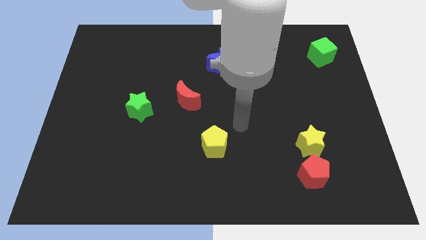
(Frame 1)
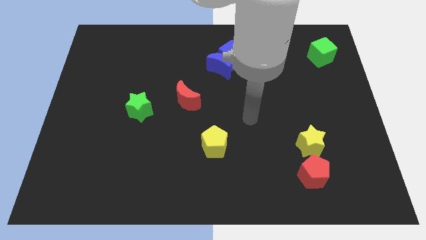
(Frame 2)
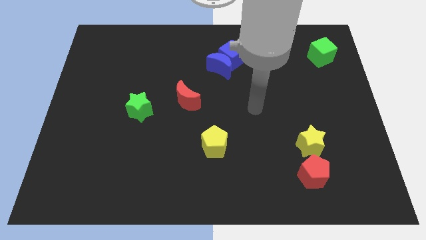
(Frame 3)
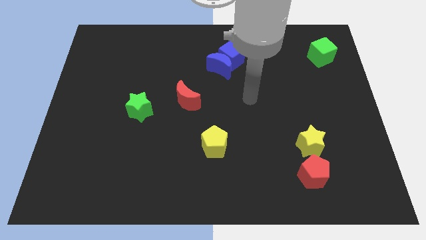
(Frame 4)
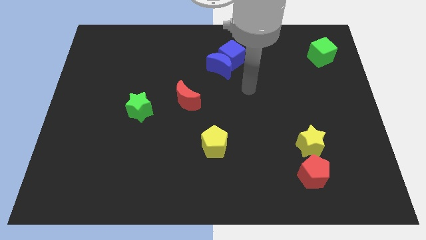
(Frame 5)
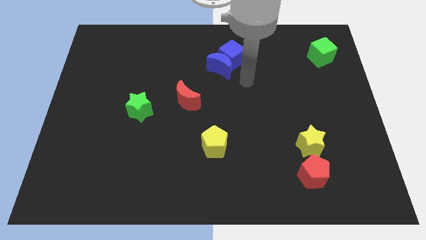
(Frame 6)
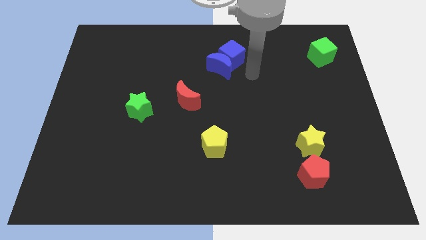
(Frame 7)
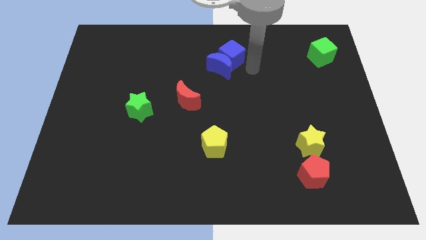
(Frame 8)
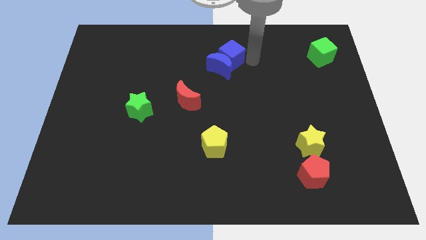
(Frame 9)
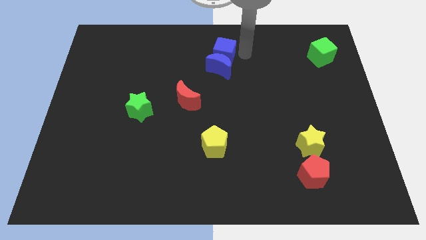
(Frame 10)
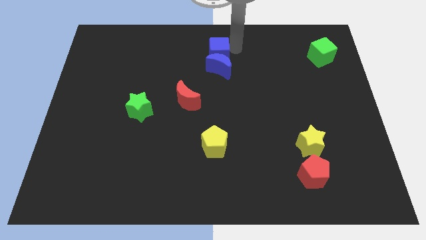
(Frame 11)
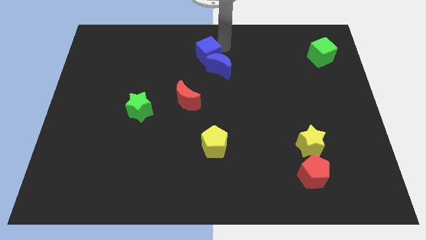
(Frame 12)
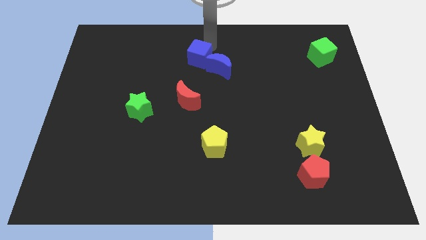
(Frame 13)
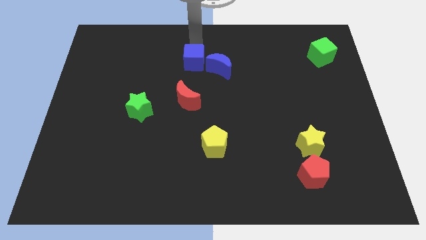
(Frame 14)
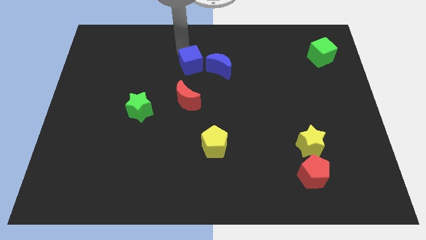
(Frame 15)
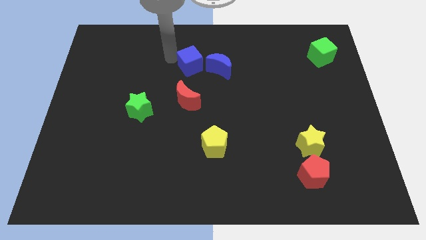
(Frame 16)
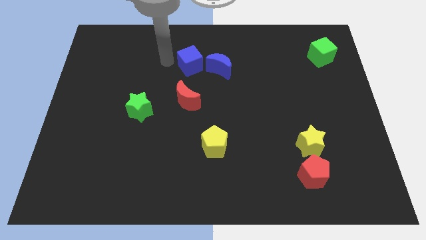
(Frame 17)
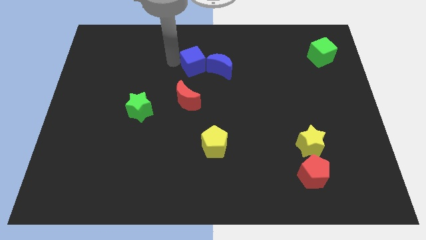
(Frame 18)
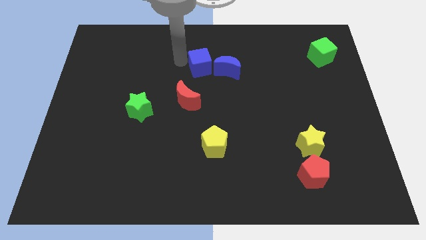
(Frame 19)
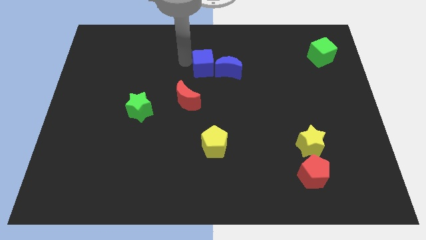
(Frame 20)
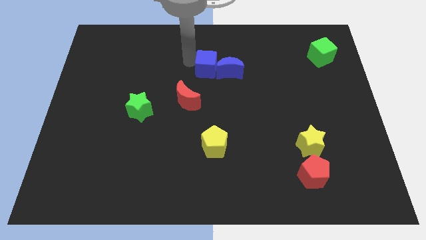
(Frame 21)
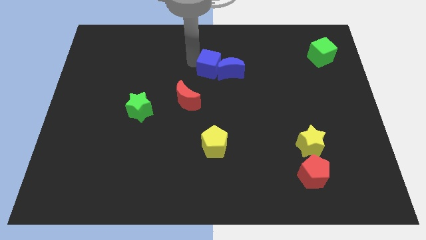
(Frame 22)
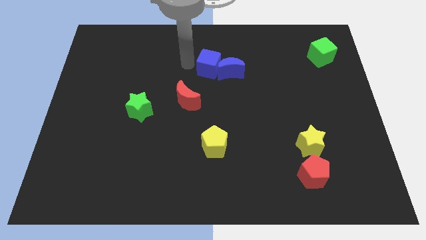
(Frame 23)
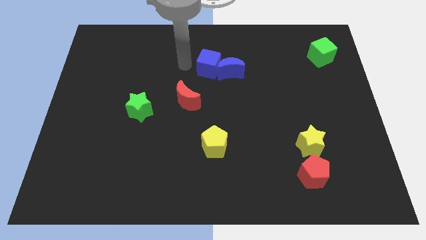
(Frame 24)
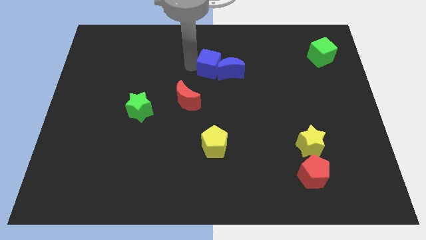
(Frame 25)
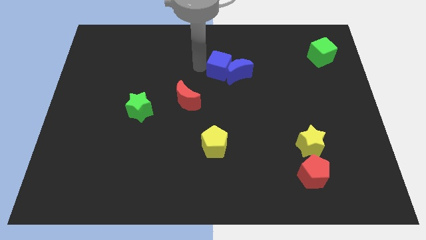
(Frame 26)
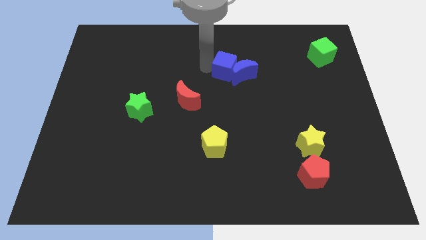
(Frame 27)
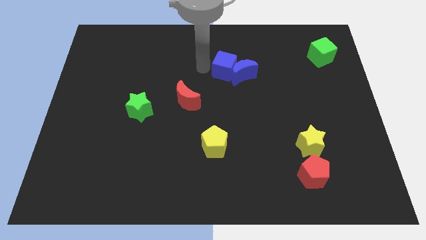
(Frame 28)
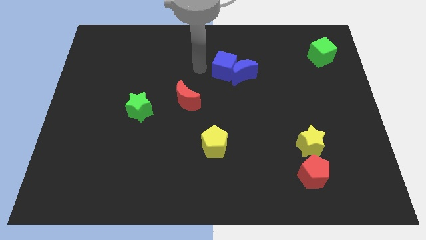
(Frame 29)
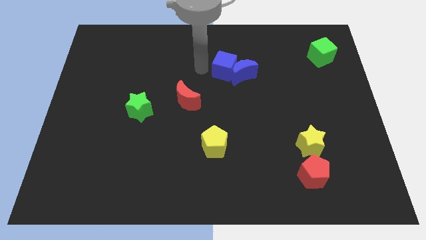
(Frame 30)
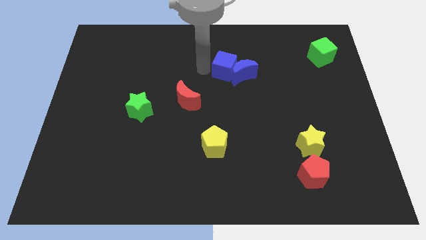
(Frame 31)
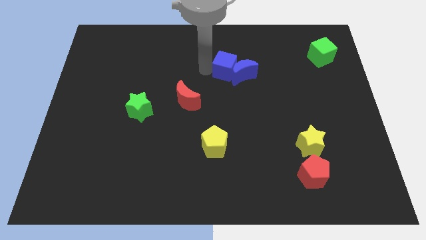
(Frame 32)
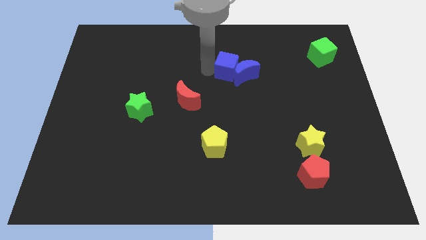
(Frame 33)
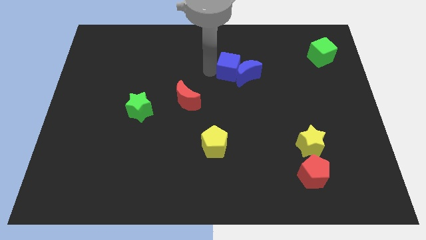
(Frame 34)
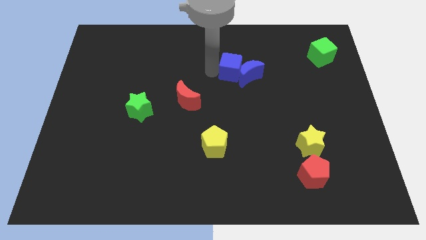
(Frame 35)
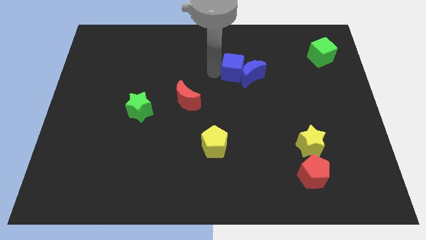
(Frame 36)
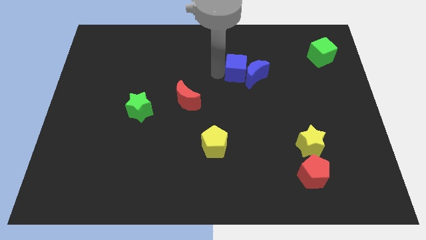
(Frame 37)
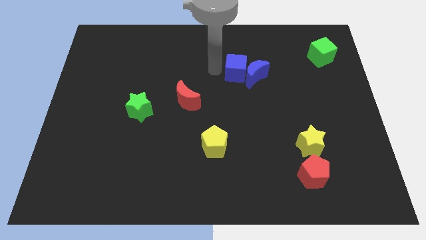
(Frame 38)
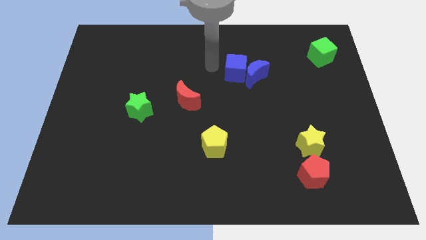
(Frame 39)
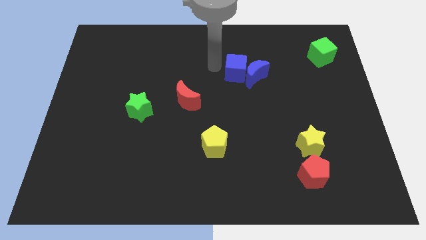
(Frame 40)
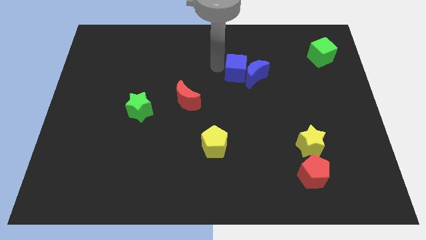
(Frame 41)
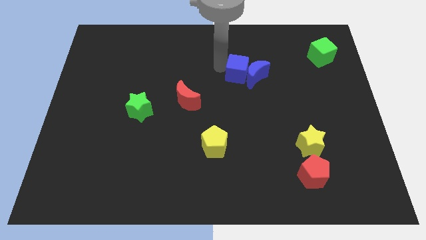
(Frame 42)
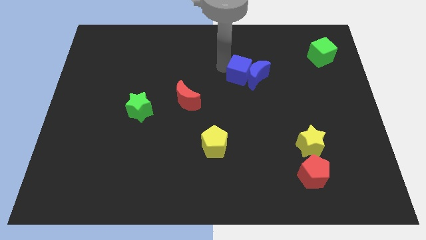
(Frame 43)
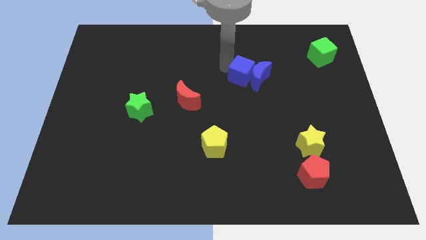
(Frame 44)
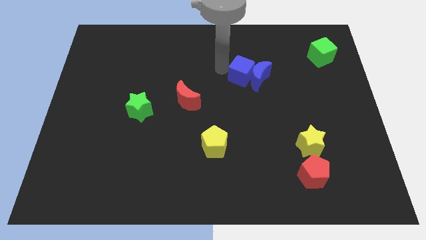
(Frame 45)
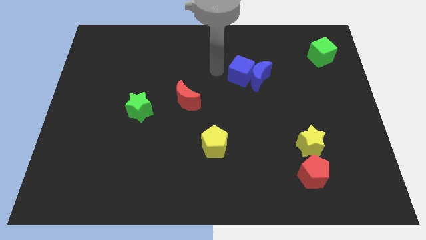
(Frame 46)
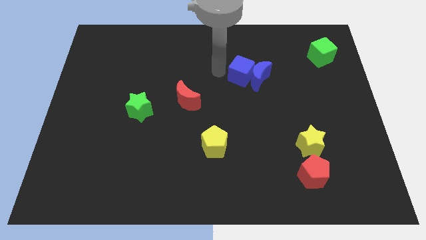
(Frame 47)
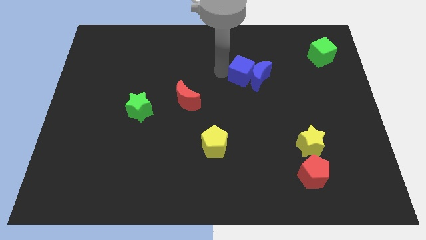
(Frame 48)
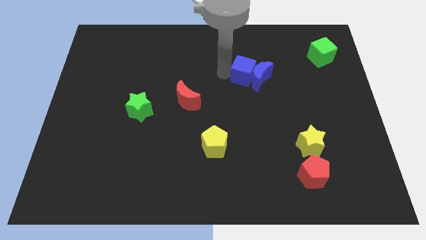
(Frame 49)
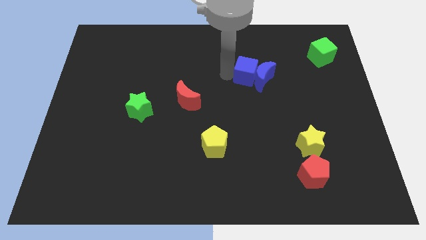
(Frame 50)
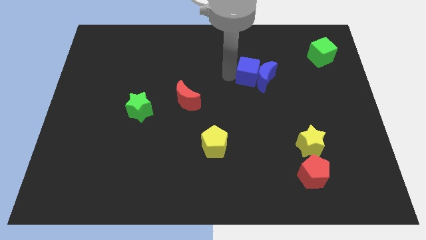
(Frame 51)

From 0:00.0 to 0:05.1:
slide the blue cube diagonally downwards and right slightly

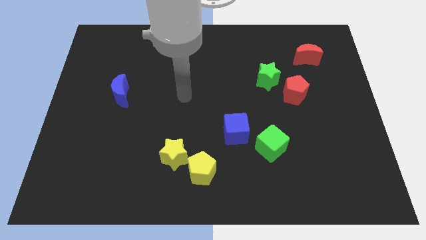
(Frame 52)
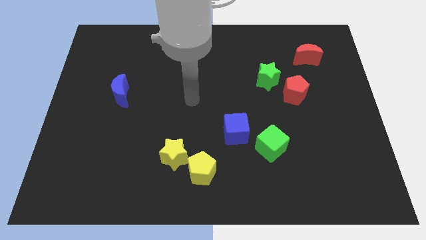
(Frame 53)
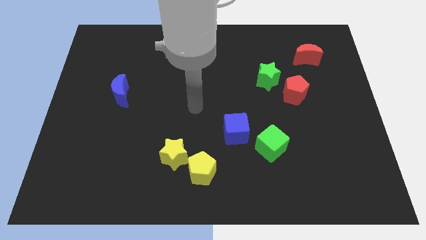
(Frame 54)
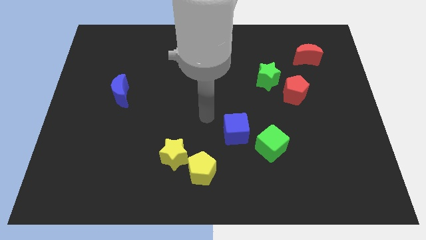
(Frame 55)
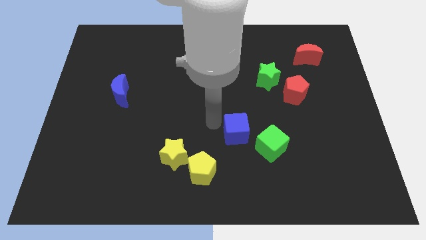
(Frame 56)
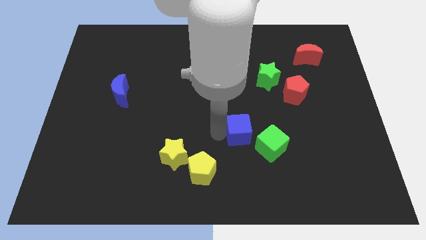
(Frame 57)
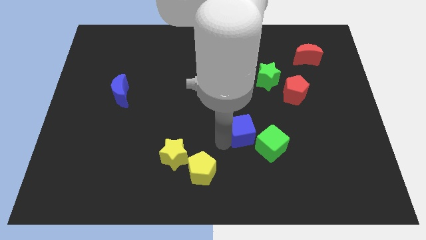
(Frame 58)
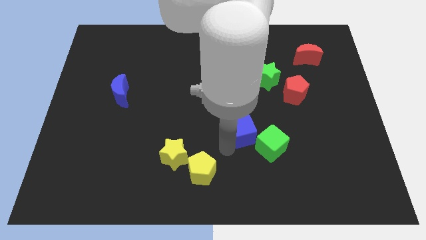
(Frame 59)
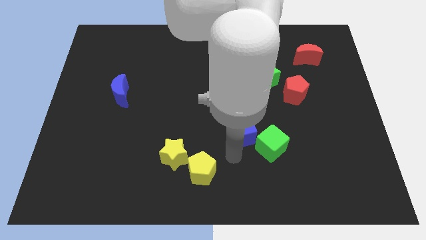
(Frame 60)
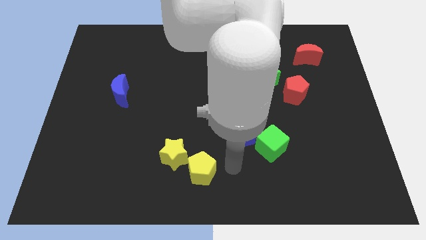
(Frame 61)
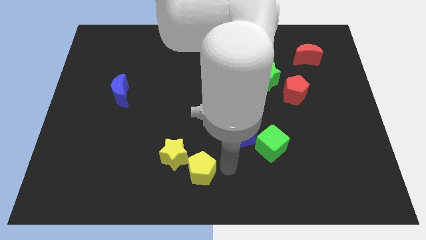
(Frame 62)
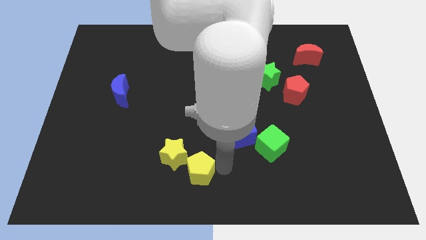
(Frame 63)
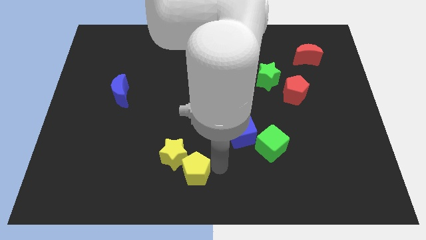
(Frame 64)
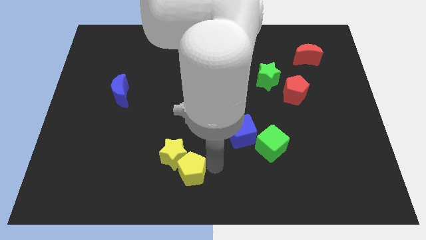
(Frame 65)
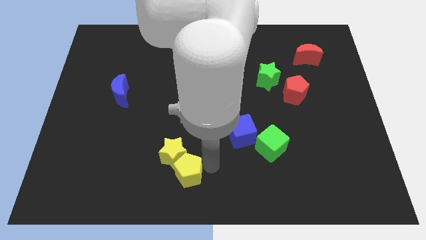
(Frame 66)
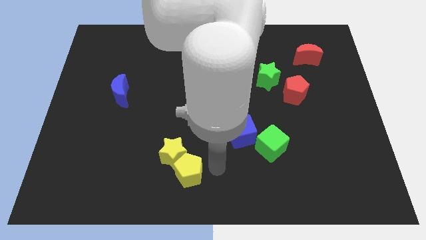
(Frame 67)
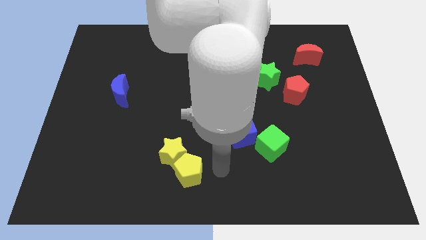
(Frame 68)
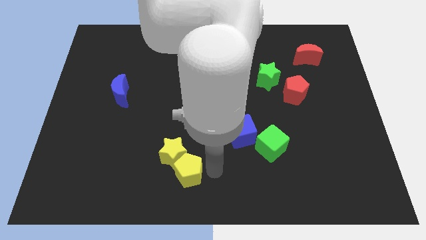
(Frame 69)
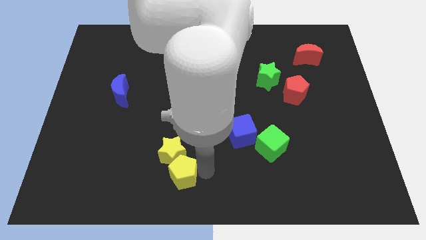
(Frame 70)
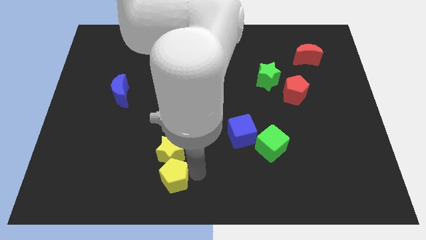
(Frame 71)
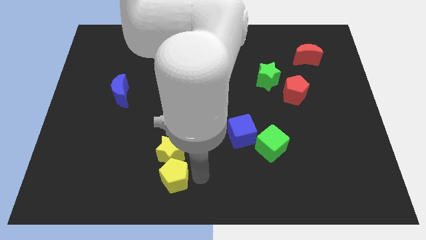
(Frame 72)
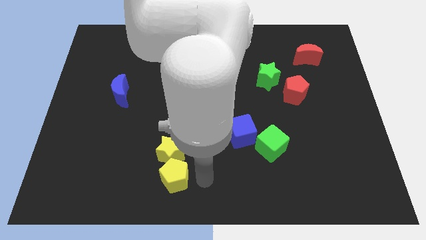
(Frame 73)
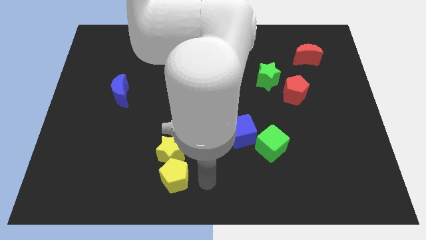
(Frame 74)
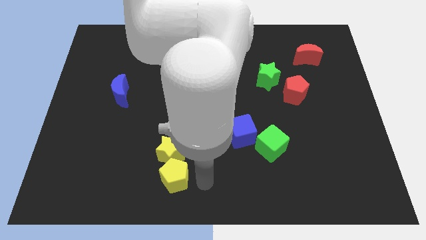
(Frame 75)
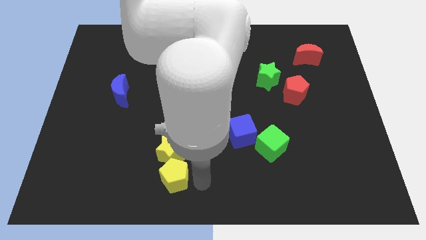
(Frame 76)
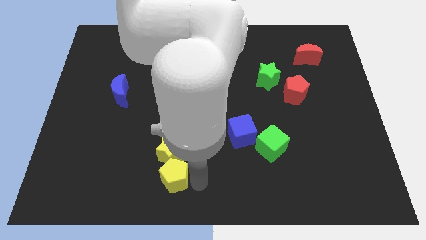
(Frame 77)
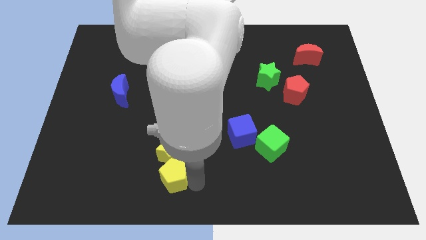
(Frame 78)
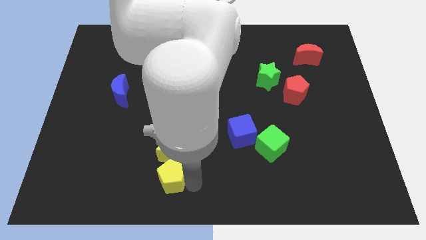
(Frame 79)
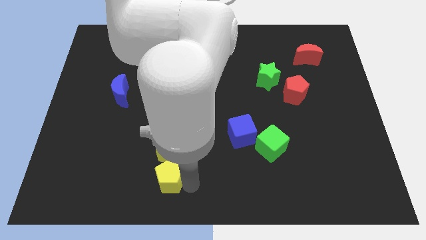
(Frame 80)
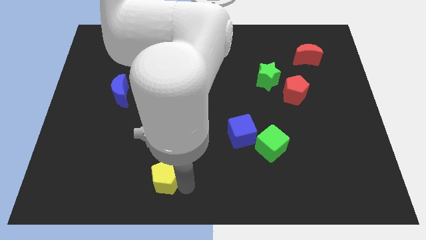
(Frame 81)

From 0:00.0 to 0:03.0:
slightly move the yellow pentagon to the left

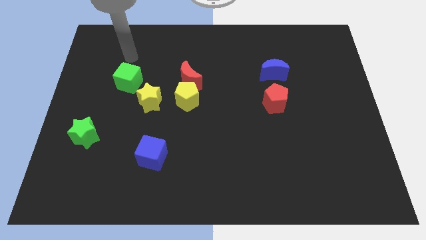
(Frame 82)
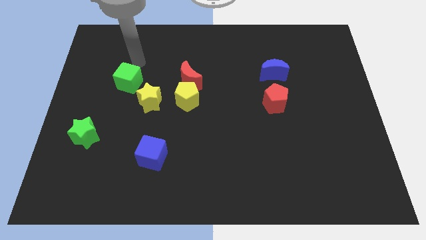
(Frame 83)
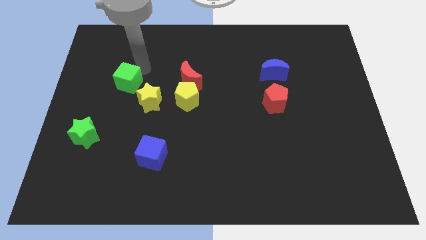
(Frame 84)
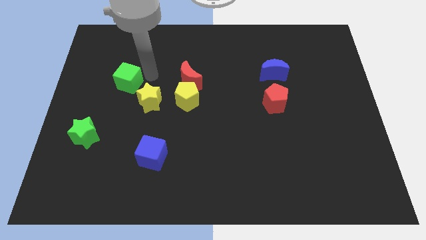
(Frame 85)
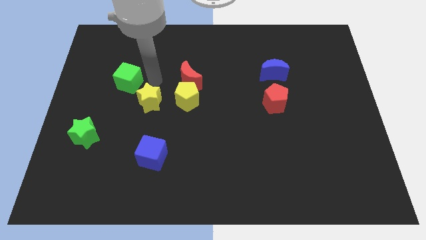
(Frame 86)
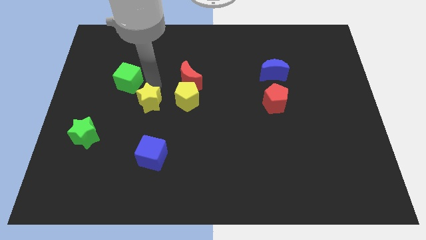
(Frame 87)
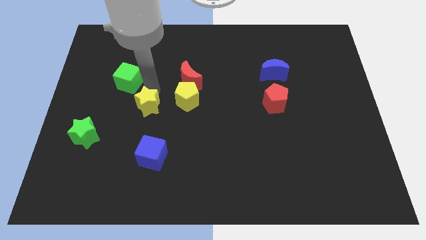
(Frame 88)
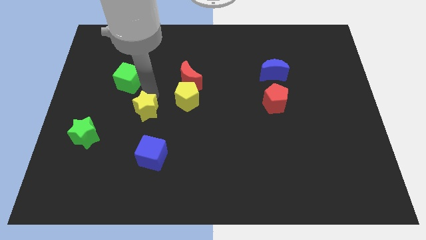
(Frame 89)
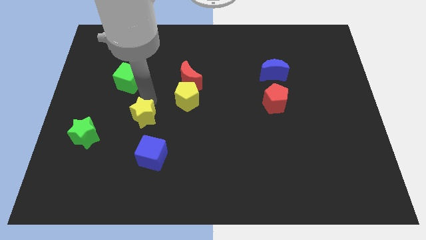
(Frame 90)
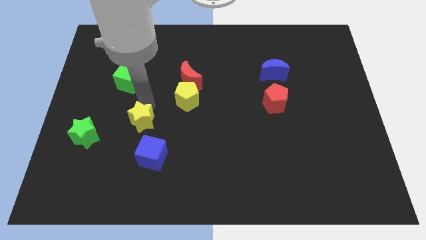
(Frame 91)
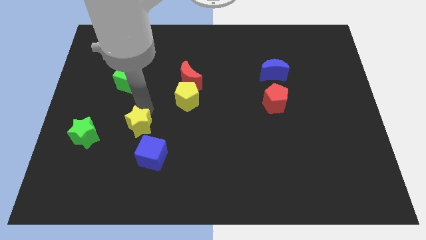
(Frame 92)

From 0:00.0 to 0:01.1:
slightly push the yellow star downwards
